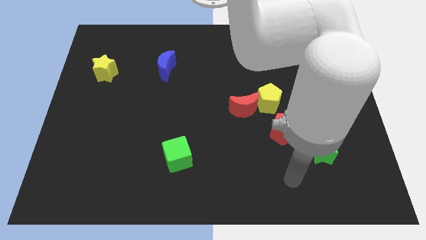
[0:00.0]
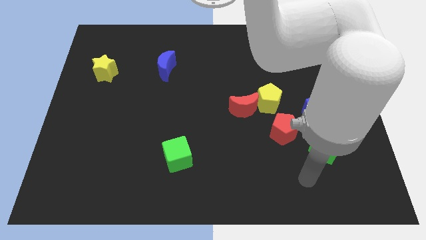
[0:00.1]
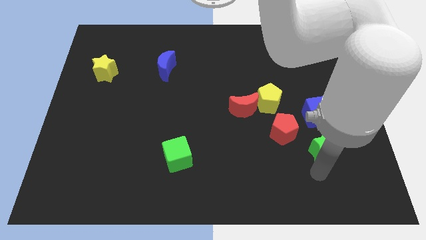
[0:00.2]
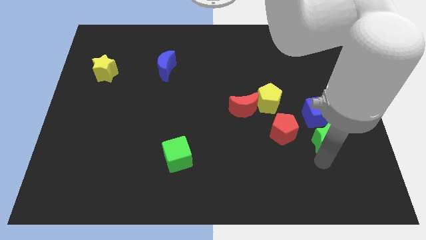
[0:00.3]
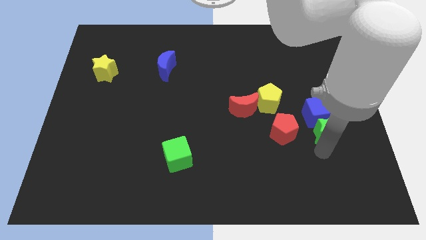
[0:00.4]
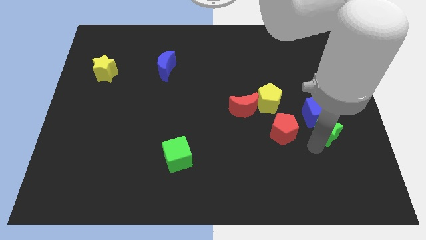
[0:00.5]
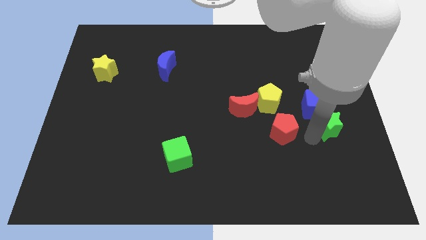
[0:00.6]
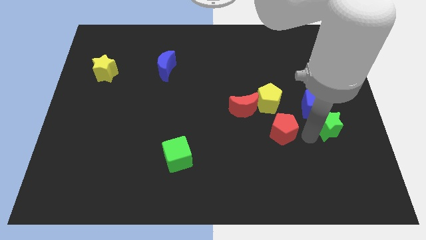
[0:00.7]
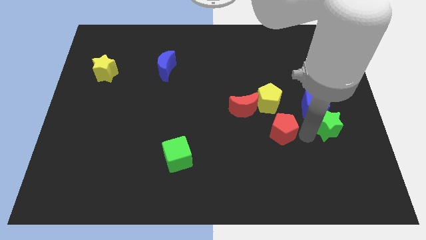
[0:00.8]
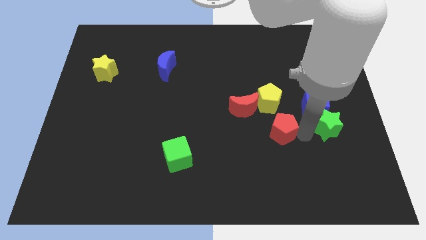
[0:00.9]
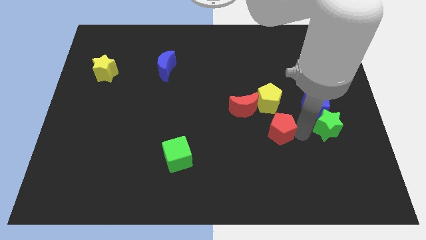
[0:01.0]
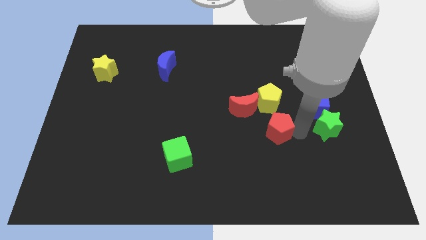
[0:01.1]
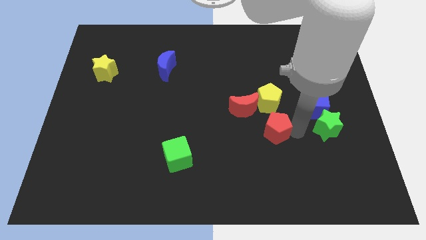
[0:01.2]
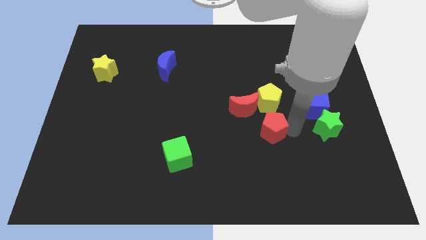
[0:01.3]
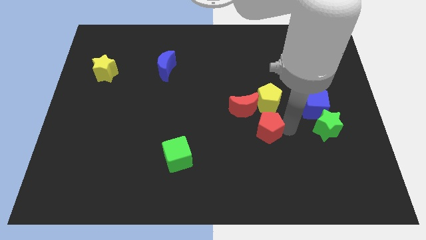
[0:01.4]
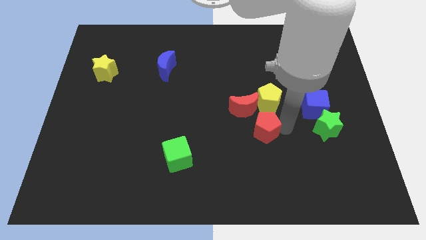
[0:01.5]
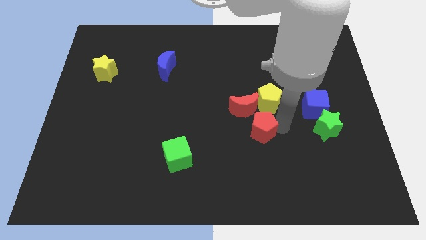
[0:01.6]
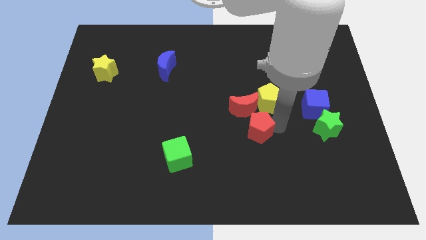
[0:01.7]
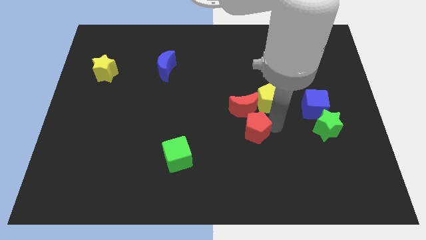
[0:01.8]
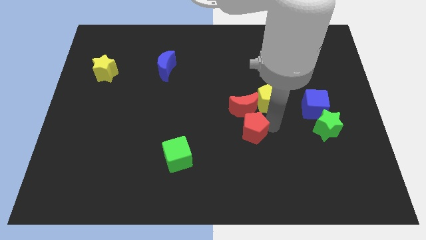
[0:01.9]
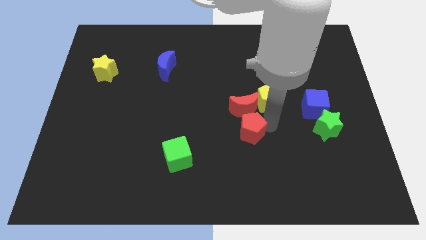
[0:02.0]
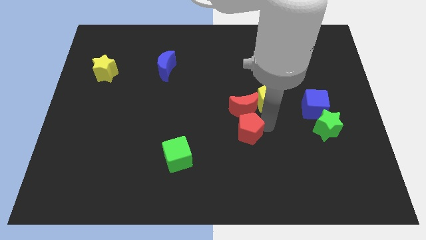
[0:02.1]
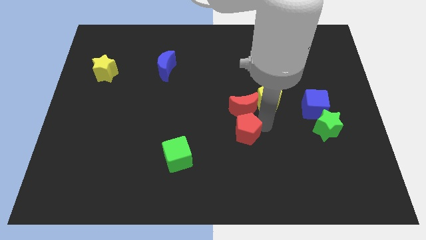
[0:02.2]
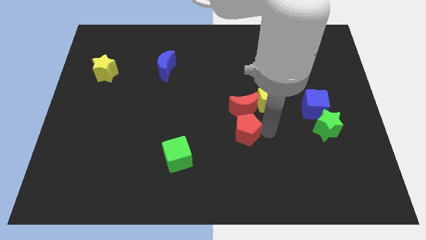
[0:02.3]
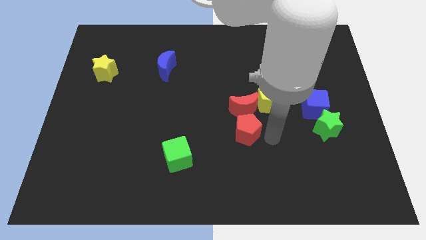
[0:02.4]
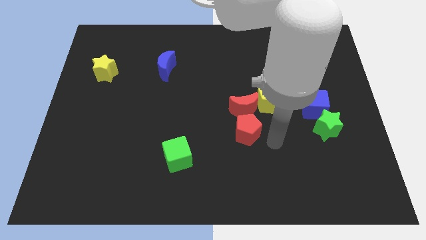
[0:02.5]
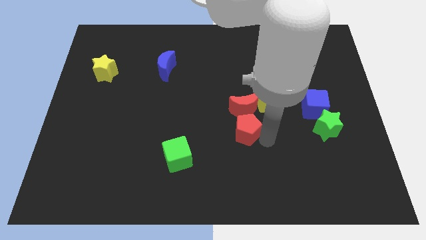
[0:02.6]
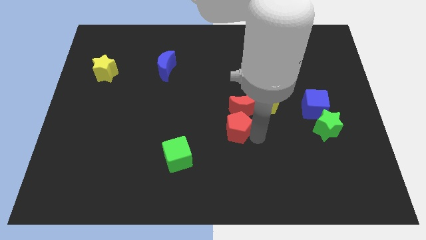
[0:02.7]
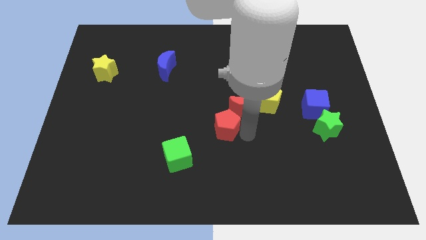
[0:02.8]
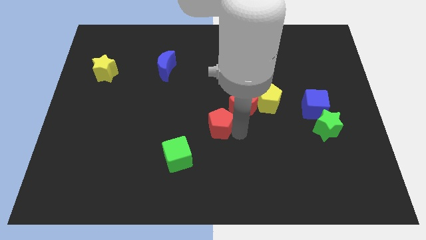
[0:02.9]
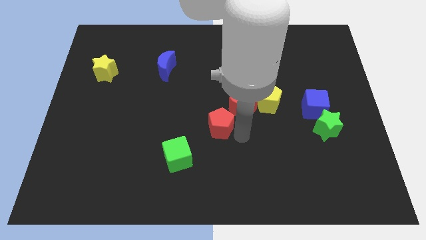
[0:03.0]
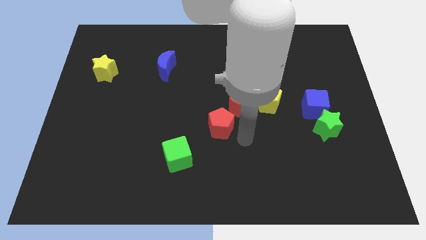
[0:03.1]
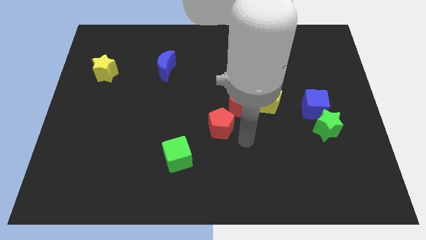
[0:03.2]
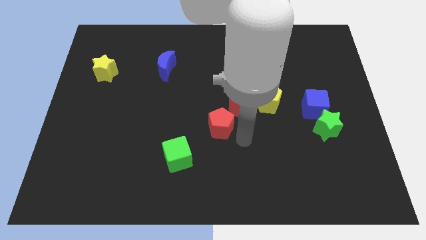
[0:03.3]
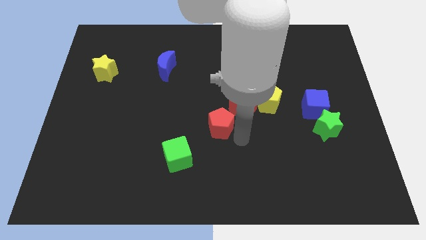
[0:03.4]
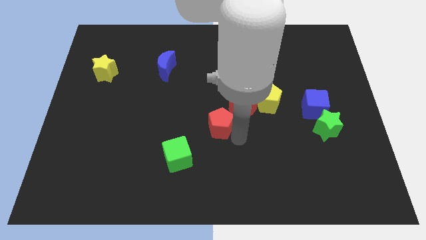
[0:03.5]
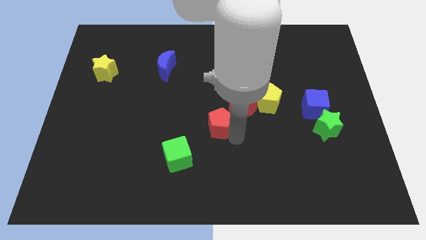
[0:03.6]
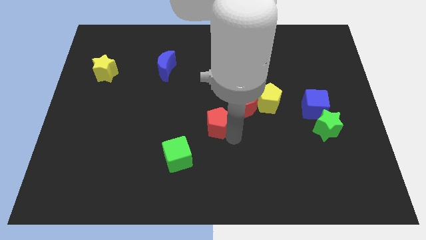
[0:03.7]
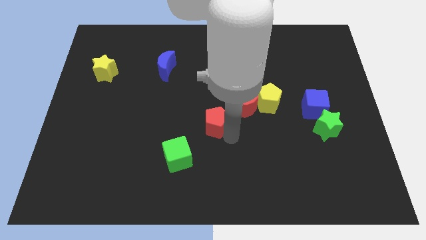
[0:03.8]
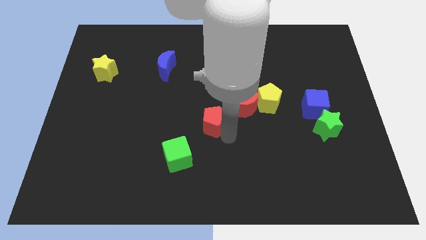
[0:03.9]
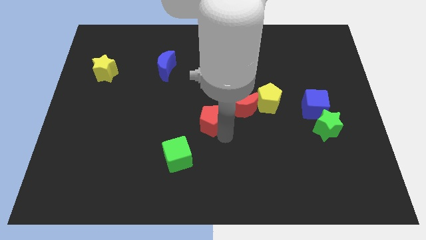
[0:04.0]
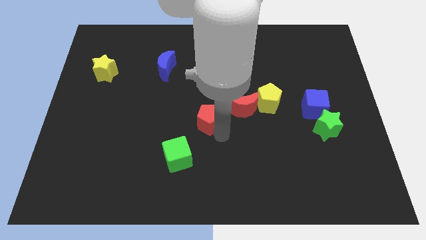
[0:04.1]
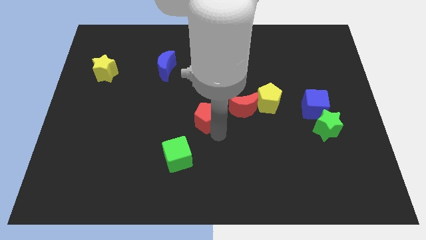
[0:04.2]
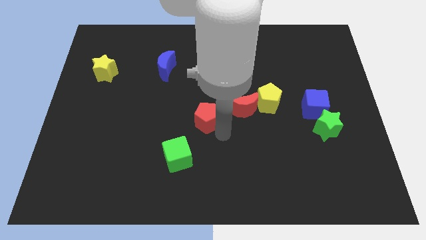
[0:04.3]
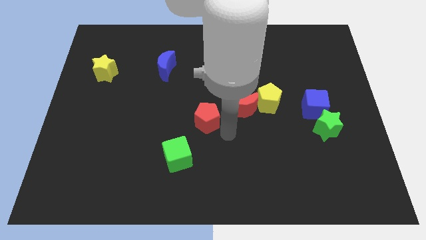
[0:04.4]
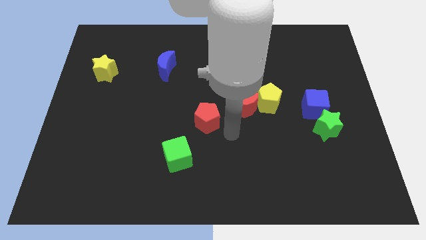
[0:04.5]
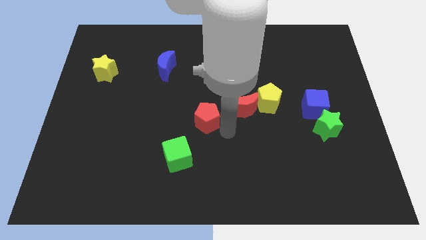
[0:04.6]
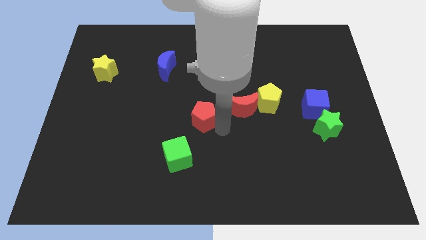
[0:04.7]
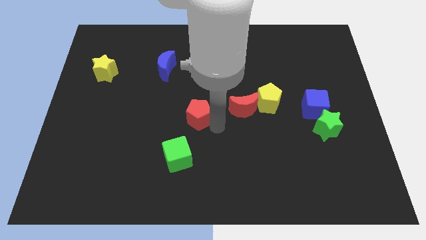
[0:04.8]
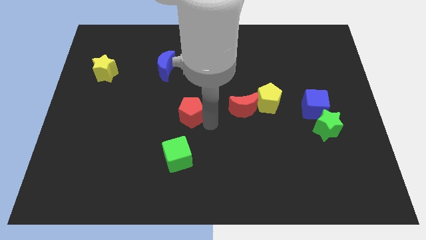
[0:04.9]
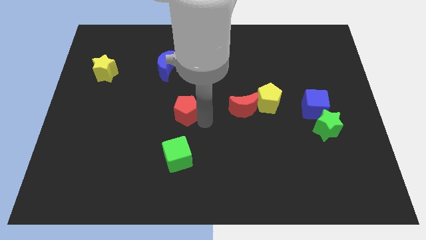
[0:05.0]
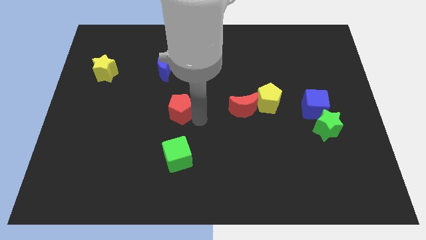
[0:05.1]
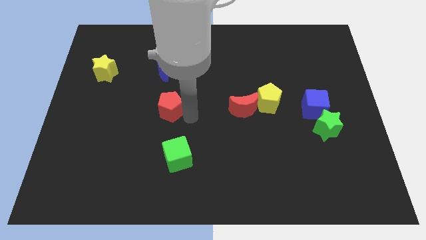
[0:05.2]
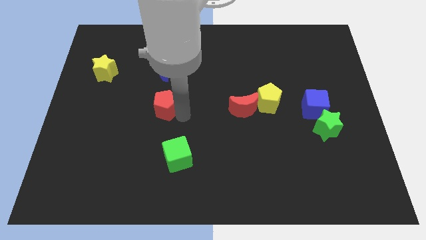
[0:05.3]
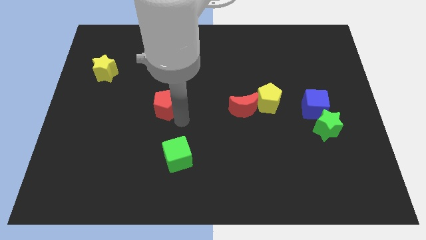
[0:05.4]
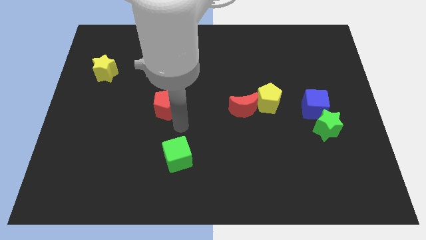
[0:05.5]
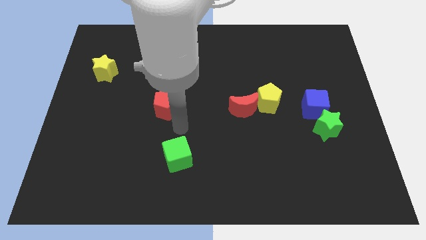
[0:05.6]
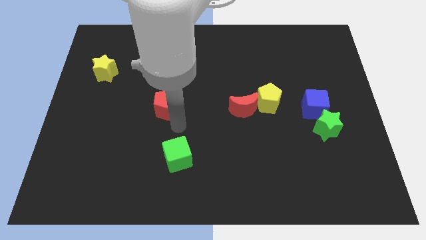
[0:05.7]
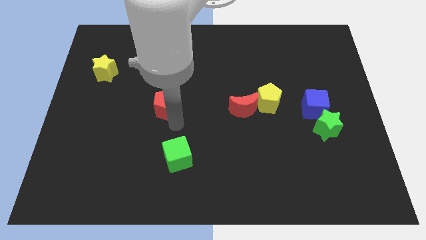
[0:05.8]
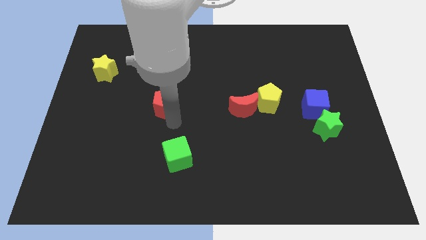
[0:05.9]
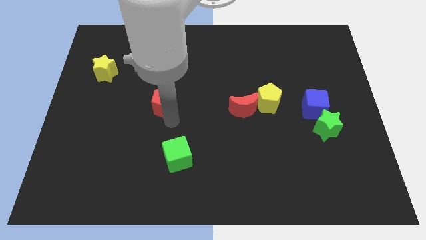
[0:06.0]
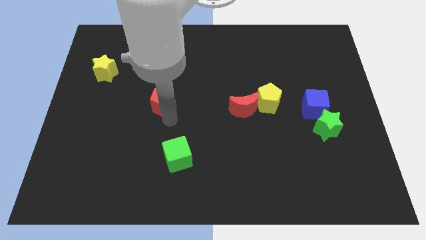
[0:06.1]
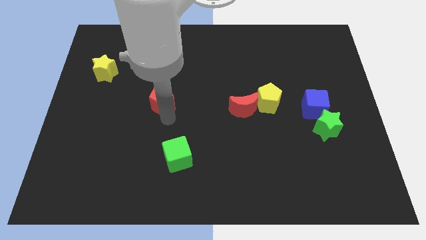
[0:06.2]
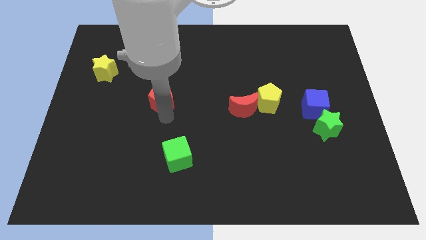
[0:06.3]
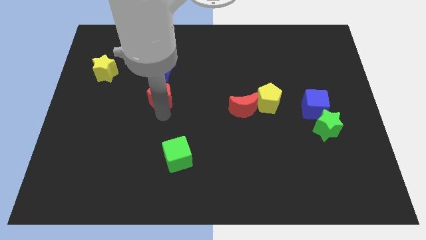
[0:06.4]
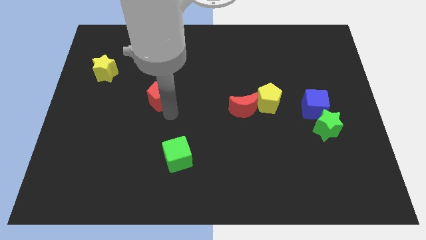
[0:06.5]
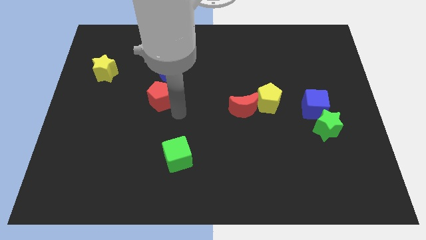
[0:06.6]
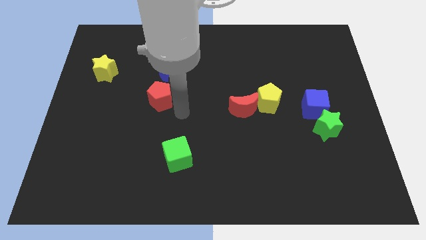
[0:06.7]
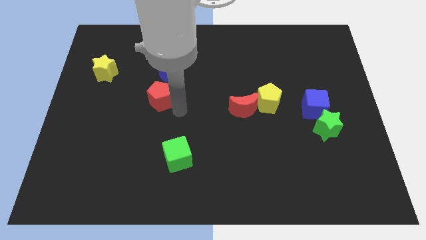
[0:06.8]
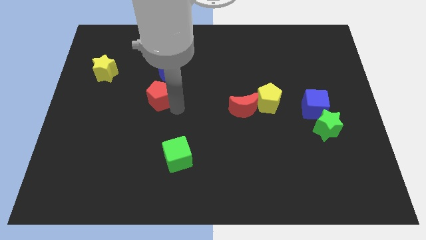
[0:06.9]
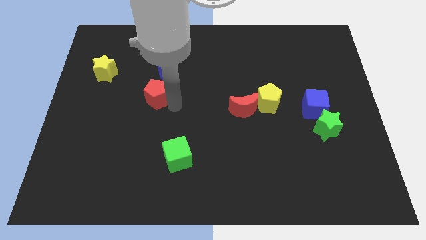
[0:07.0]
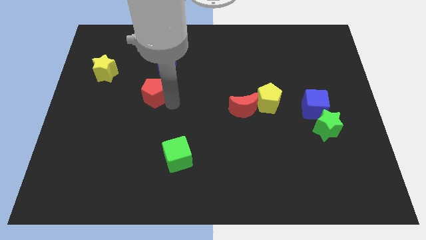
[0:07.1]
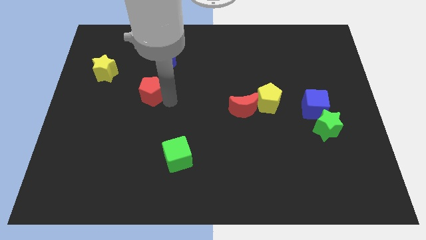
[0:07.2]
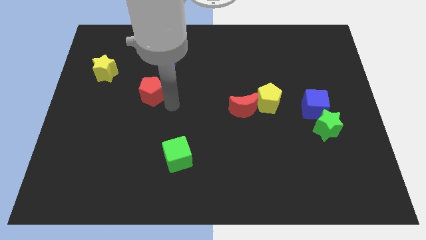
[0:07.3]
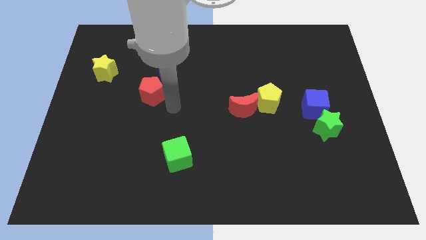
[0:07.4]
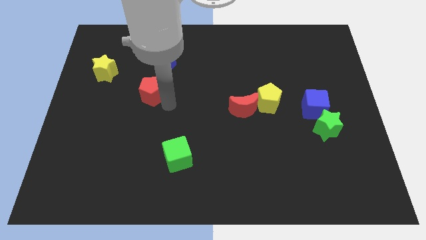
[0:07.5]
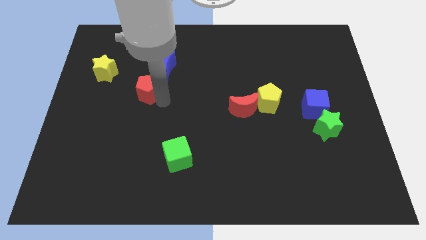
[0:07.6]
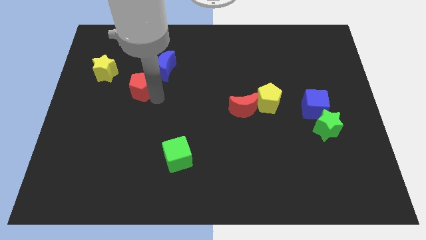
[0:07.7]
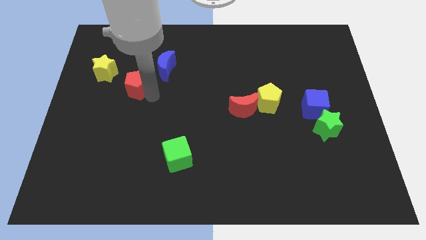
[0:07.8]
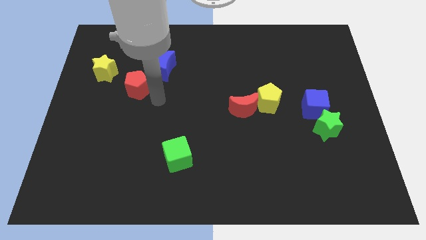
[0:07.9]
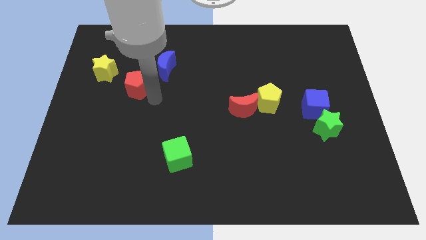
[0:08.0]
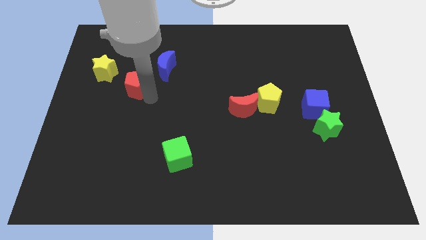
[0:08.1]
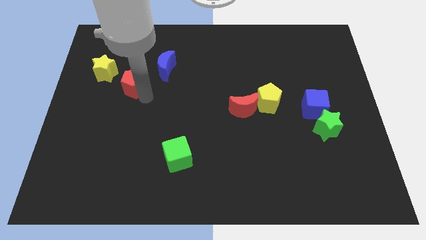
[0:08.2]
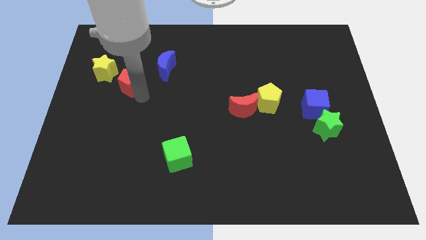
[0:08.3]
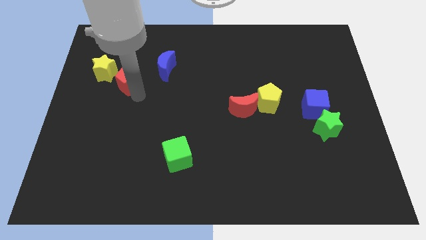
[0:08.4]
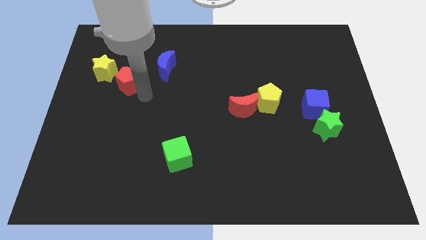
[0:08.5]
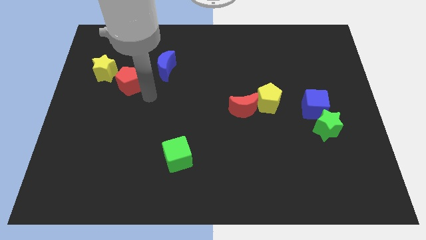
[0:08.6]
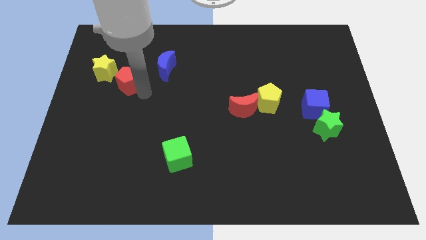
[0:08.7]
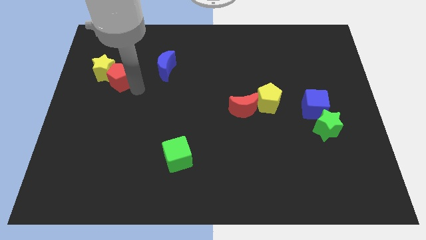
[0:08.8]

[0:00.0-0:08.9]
put the red pentagon next to the yellow star
